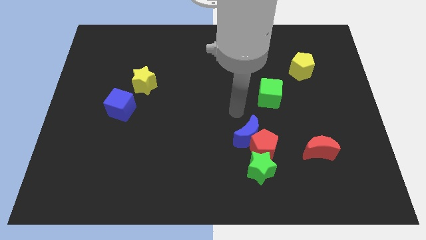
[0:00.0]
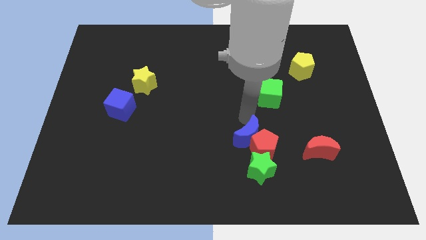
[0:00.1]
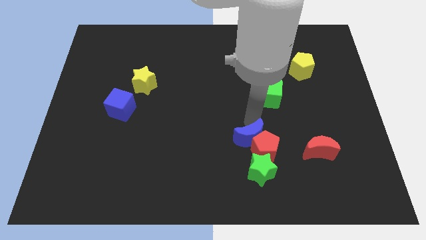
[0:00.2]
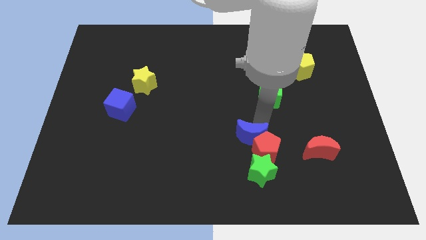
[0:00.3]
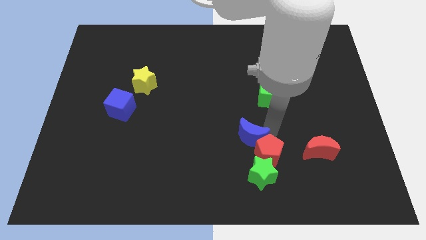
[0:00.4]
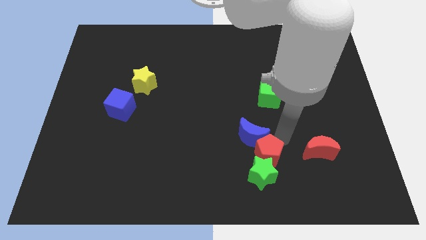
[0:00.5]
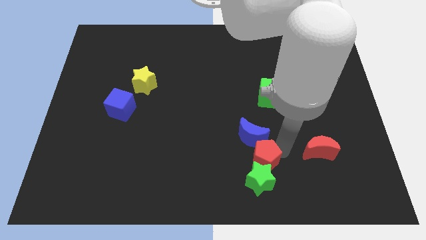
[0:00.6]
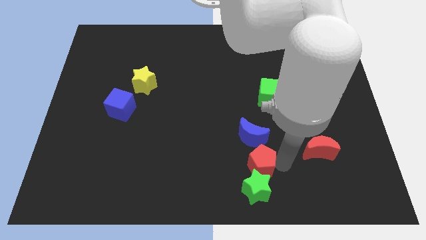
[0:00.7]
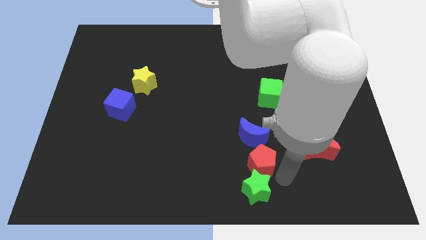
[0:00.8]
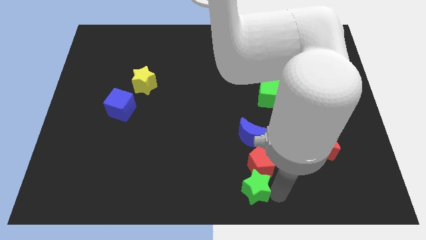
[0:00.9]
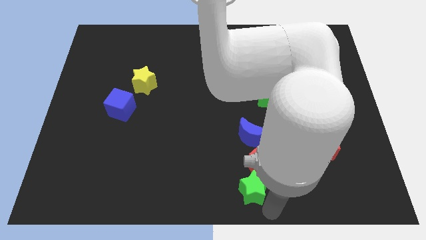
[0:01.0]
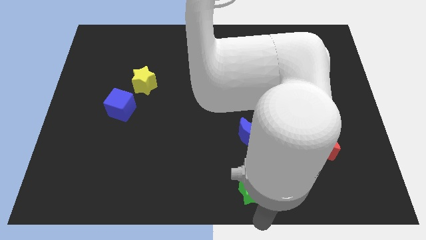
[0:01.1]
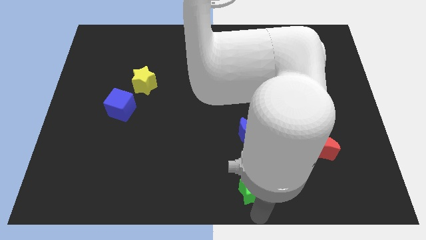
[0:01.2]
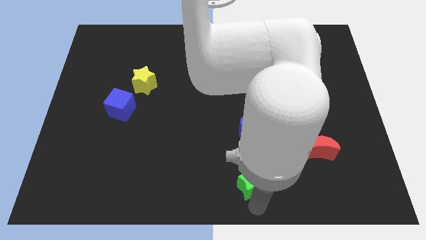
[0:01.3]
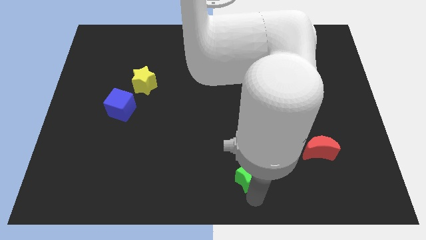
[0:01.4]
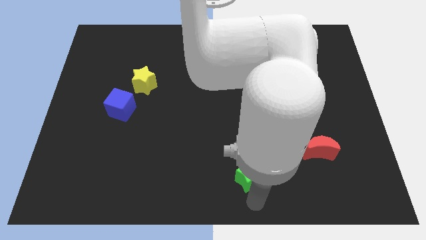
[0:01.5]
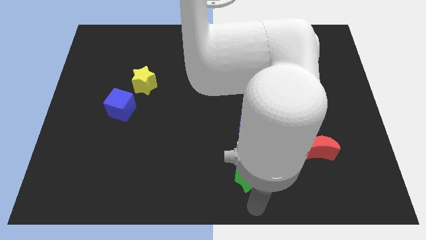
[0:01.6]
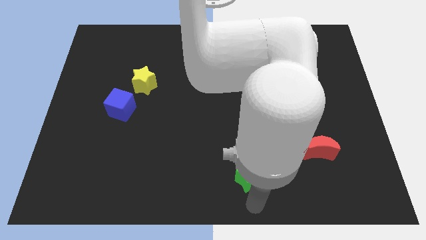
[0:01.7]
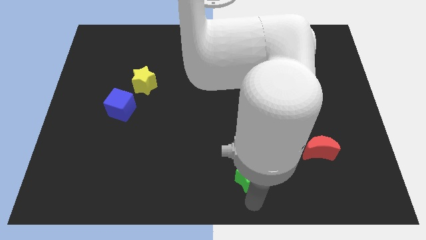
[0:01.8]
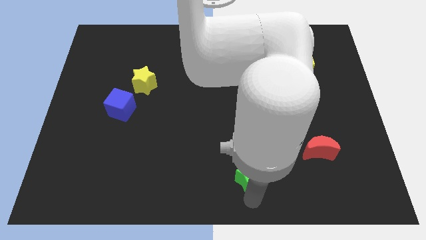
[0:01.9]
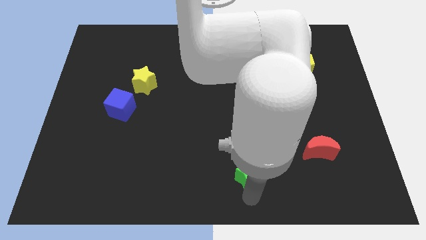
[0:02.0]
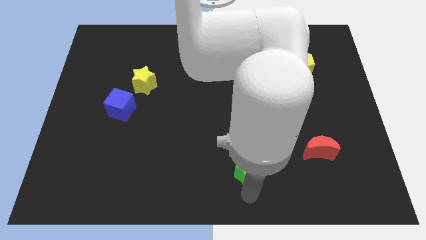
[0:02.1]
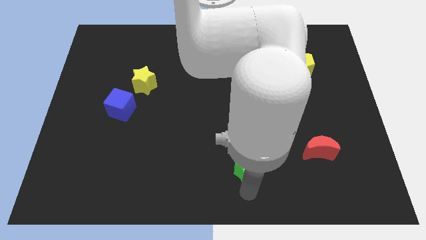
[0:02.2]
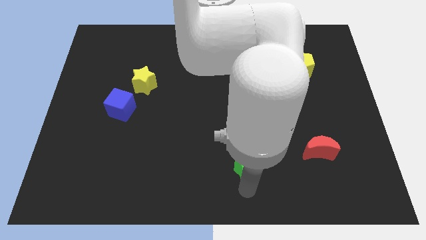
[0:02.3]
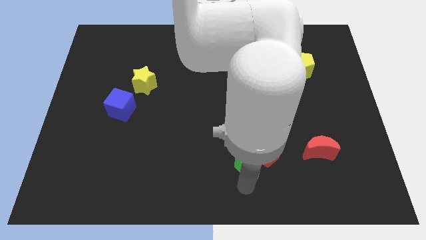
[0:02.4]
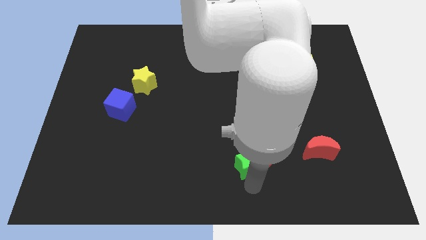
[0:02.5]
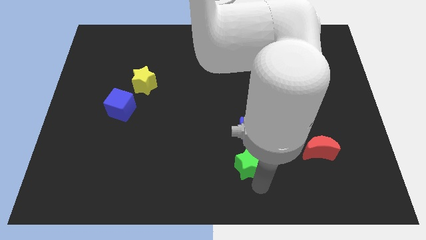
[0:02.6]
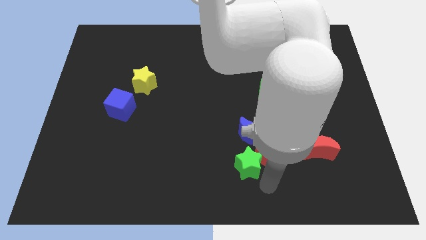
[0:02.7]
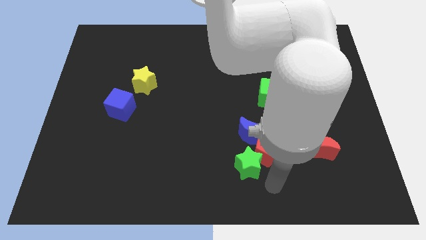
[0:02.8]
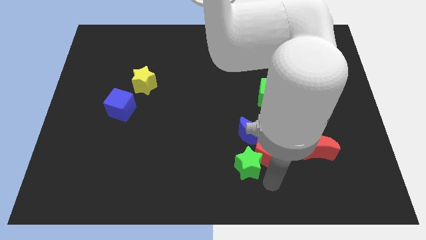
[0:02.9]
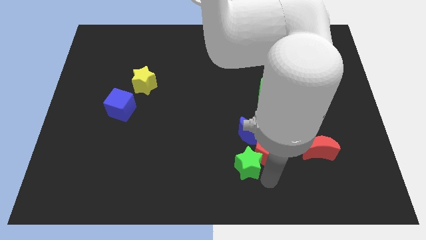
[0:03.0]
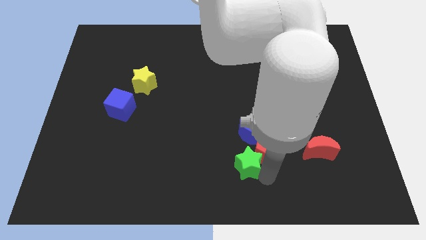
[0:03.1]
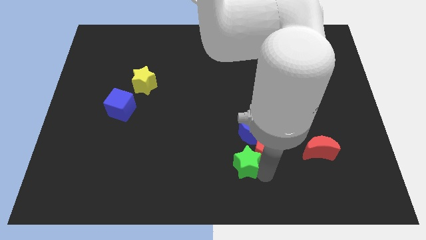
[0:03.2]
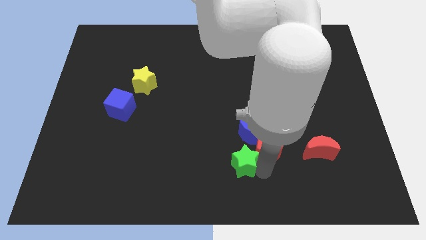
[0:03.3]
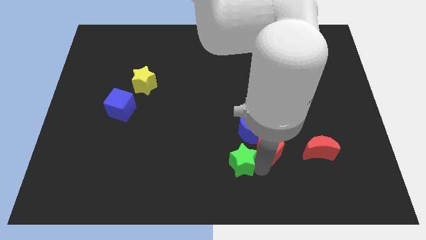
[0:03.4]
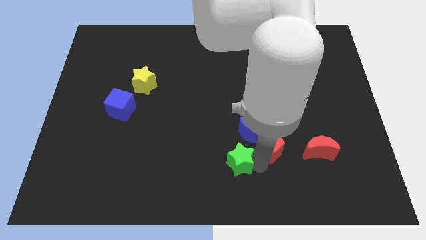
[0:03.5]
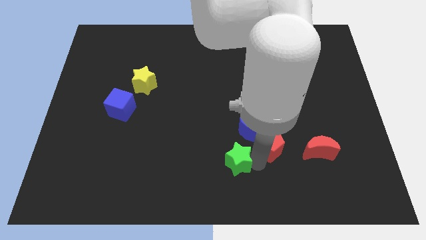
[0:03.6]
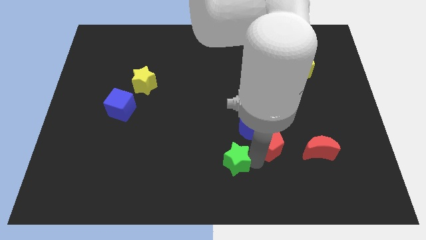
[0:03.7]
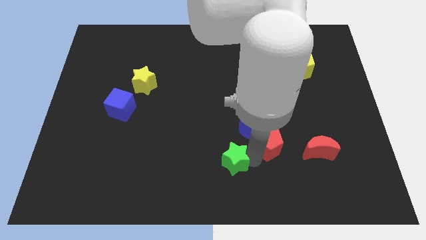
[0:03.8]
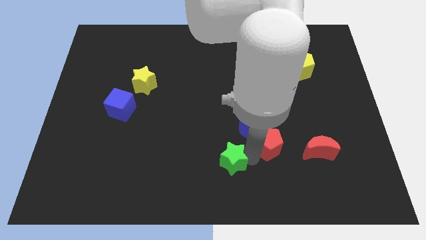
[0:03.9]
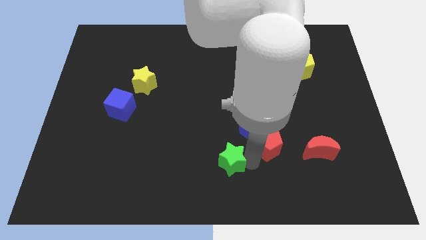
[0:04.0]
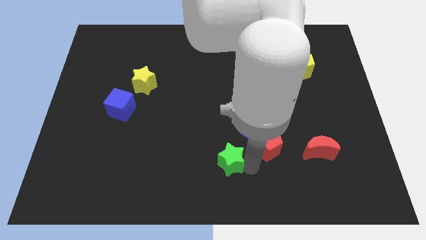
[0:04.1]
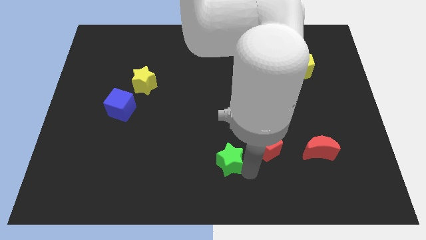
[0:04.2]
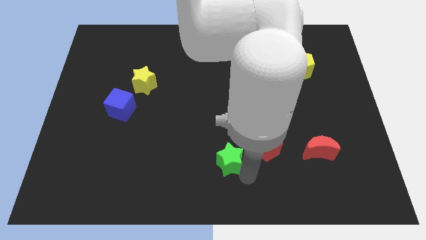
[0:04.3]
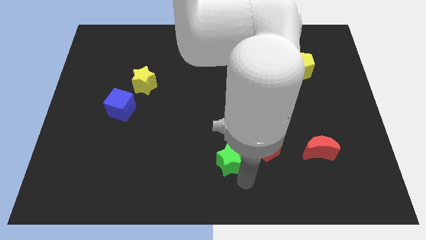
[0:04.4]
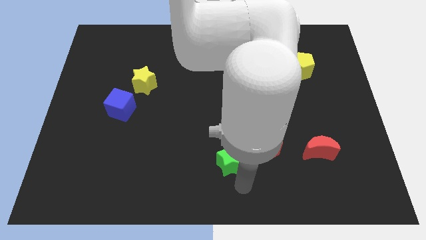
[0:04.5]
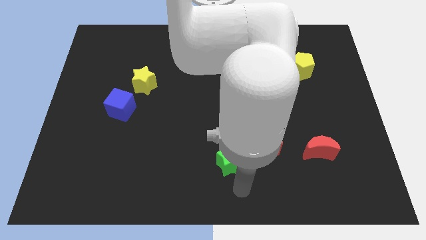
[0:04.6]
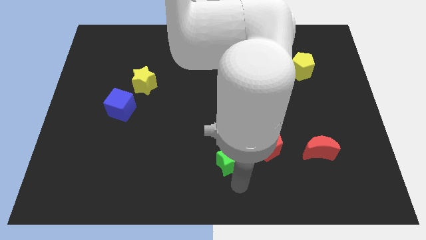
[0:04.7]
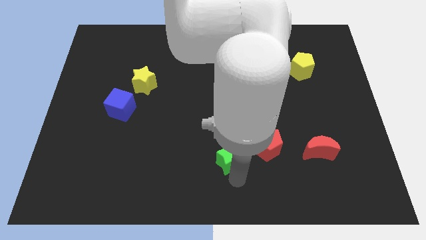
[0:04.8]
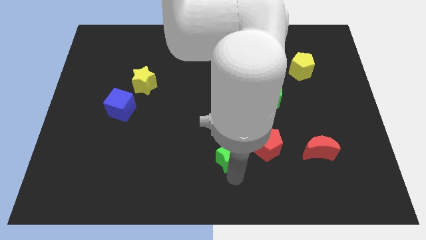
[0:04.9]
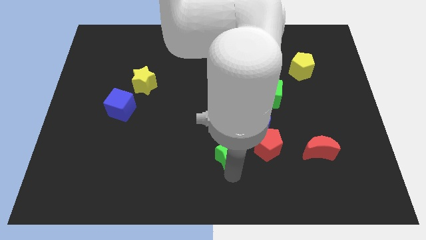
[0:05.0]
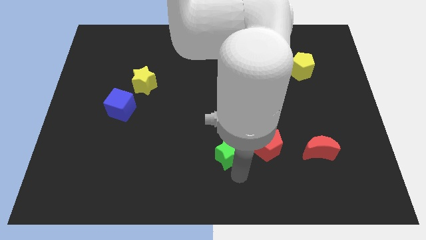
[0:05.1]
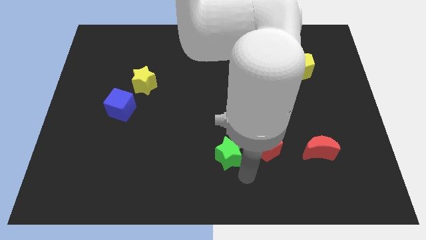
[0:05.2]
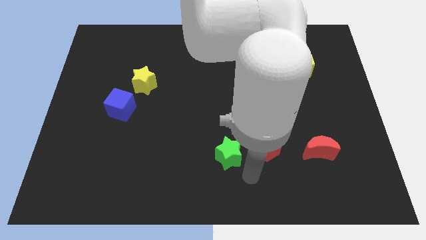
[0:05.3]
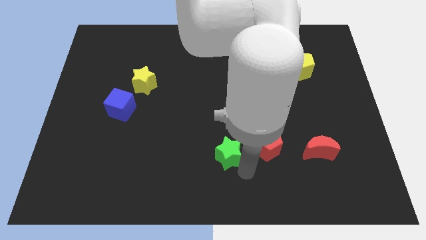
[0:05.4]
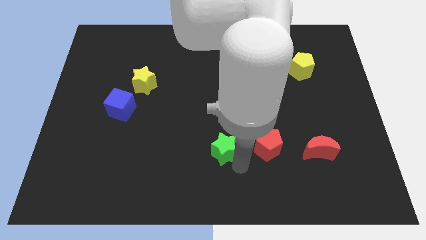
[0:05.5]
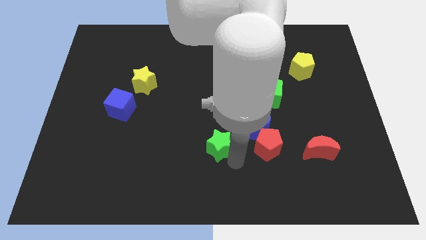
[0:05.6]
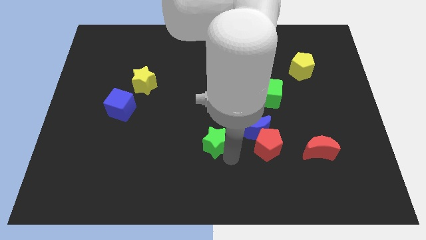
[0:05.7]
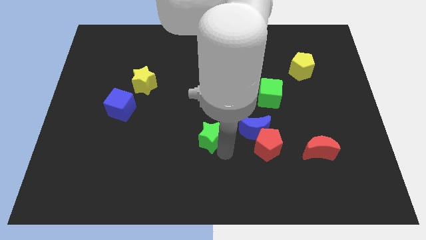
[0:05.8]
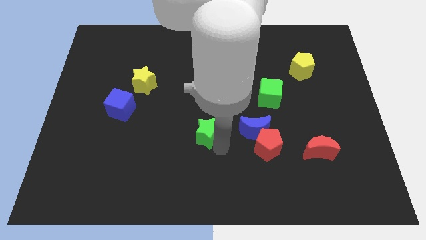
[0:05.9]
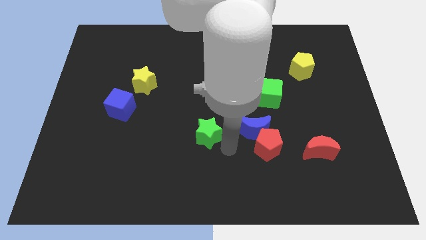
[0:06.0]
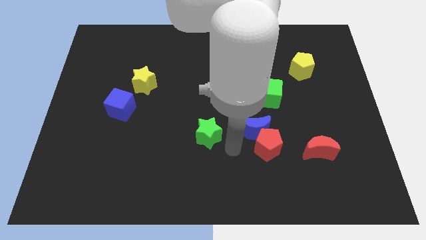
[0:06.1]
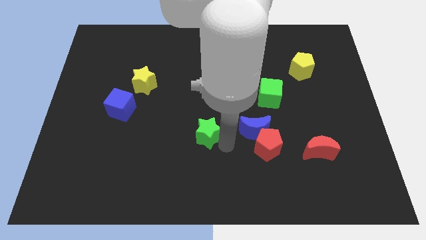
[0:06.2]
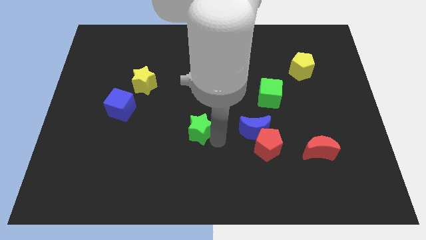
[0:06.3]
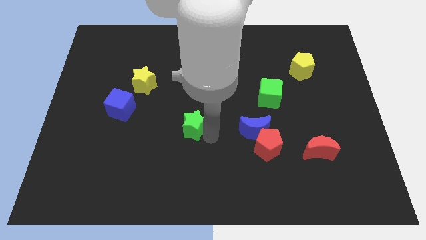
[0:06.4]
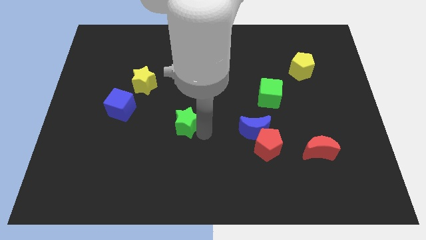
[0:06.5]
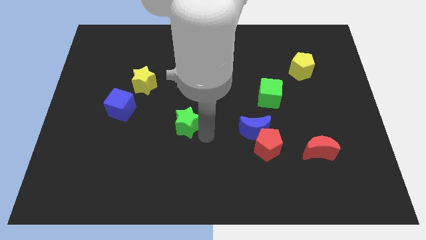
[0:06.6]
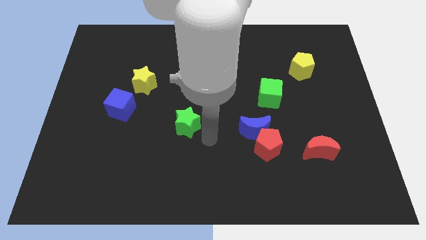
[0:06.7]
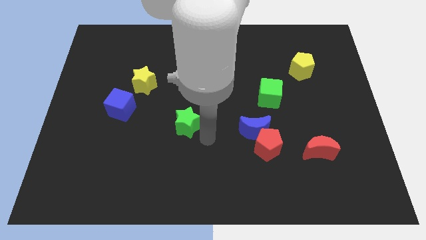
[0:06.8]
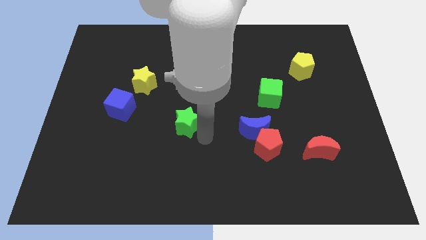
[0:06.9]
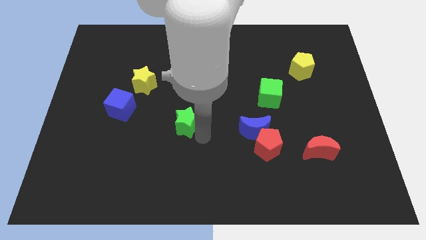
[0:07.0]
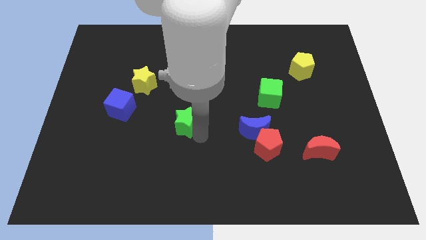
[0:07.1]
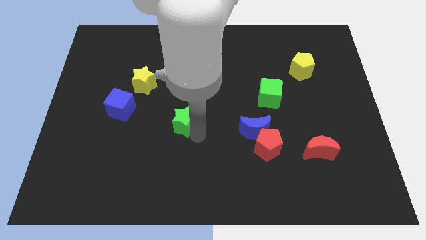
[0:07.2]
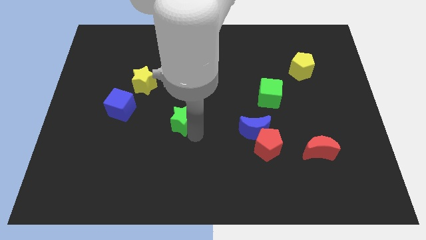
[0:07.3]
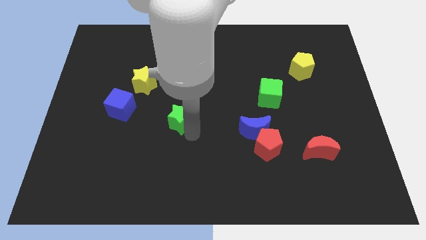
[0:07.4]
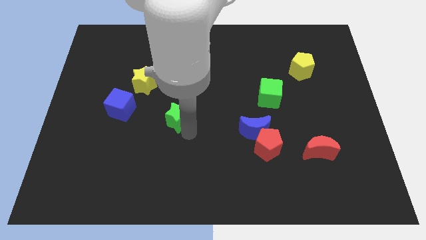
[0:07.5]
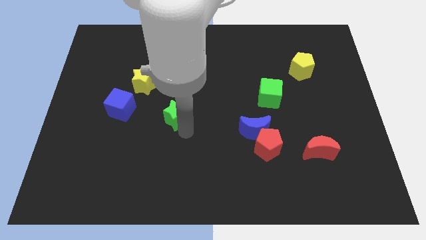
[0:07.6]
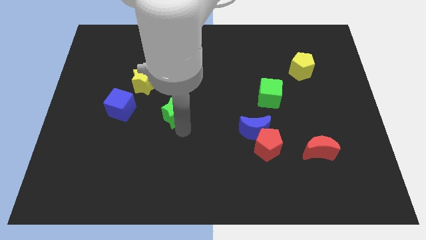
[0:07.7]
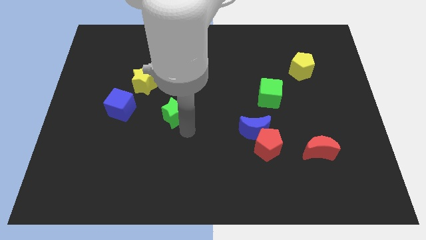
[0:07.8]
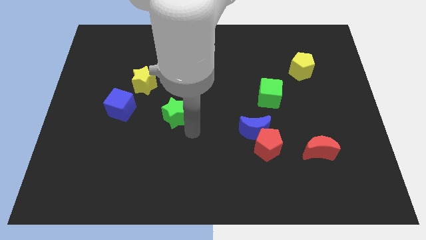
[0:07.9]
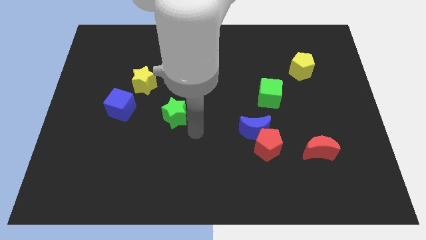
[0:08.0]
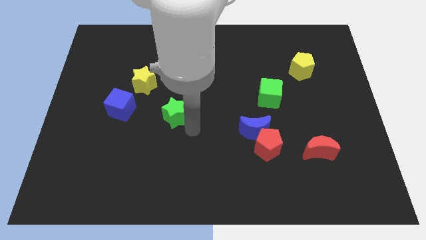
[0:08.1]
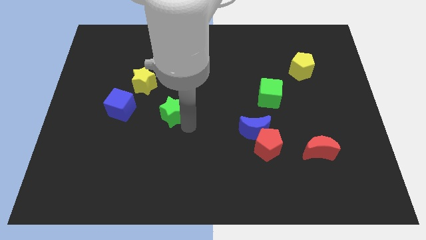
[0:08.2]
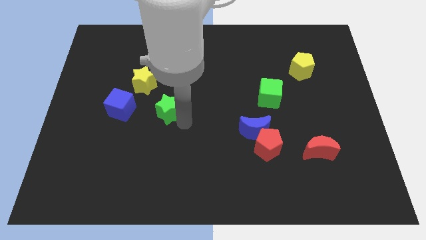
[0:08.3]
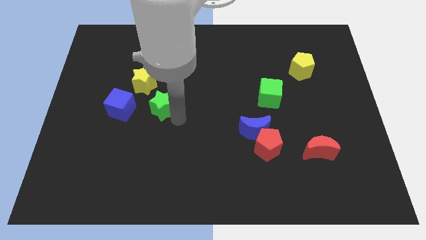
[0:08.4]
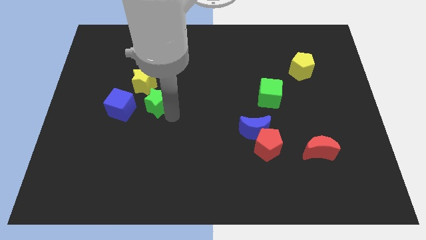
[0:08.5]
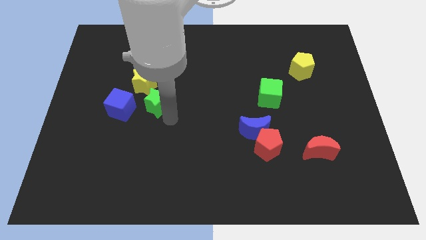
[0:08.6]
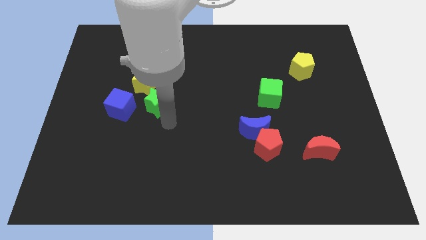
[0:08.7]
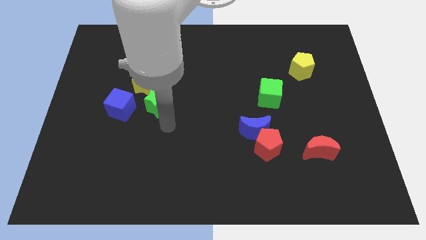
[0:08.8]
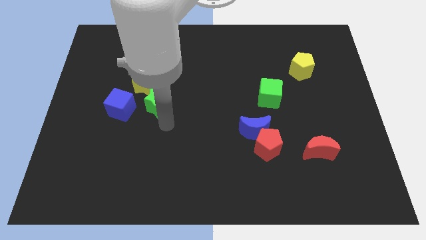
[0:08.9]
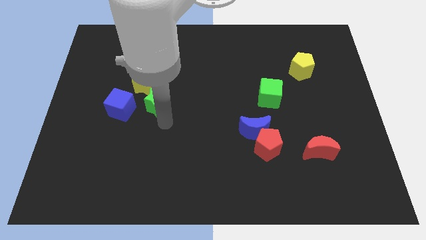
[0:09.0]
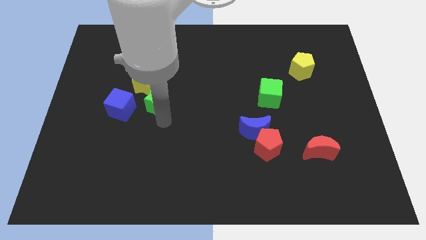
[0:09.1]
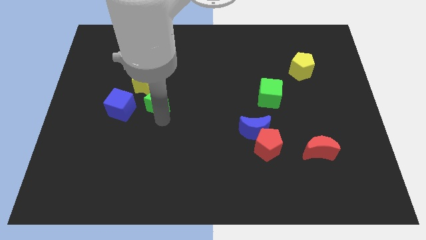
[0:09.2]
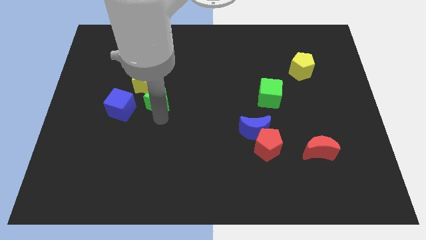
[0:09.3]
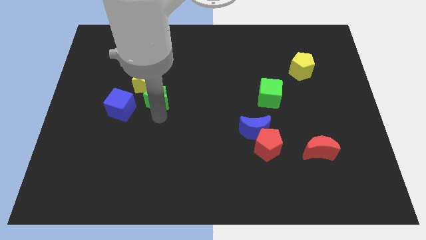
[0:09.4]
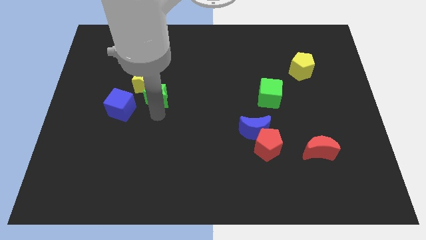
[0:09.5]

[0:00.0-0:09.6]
move the green star next to the yellow star
